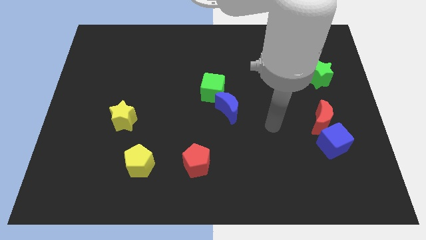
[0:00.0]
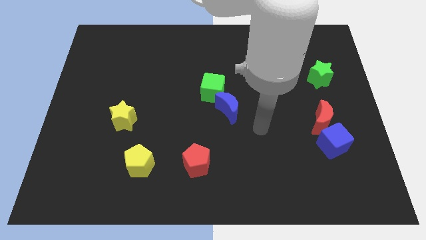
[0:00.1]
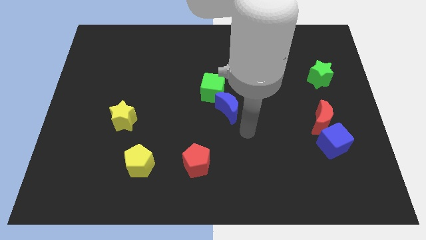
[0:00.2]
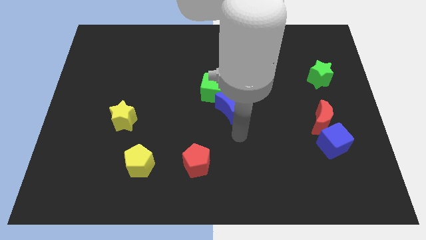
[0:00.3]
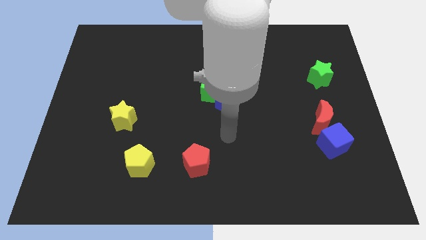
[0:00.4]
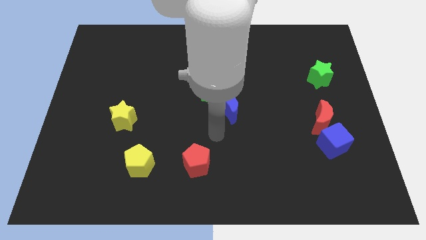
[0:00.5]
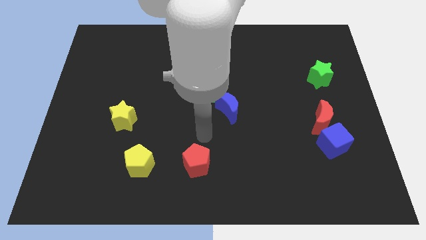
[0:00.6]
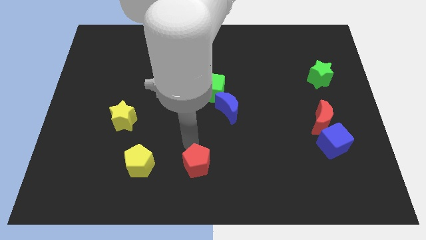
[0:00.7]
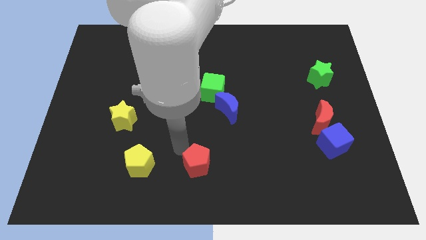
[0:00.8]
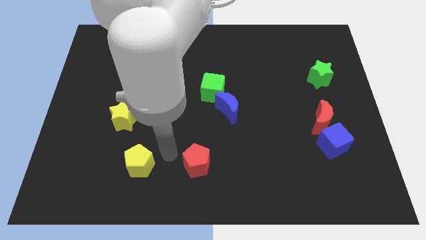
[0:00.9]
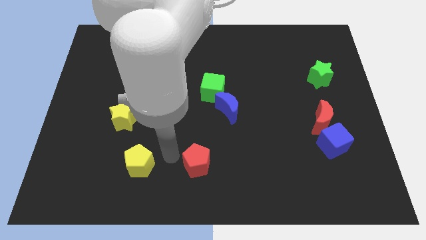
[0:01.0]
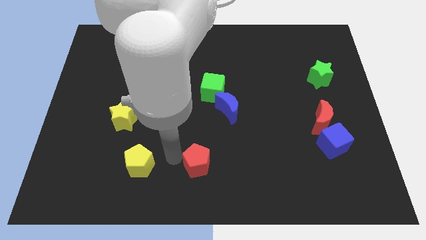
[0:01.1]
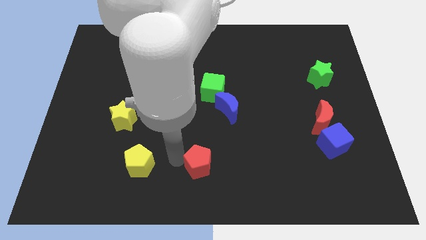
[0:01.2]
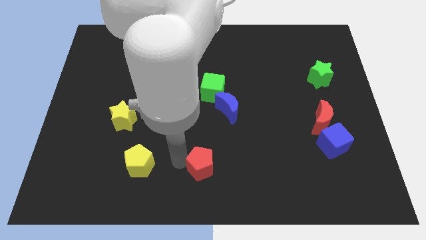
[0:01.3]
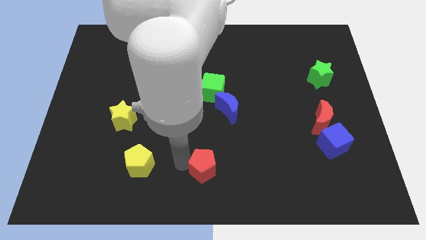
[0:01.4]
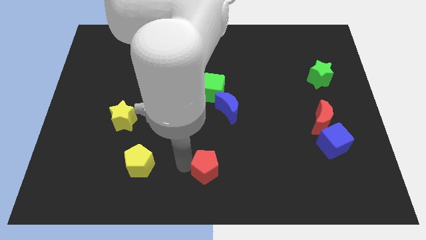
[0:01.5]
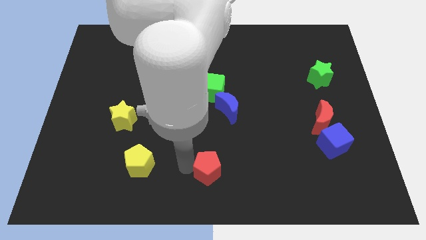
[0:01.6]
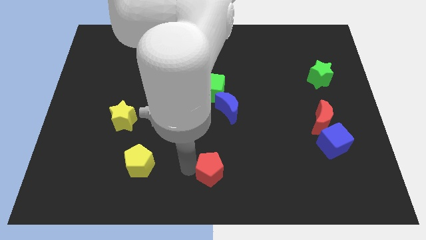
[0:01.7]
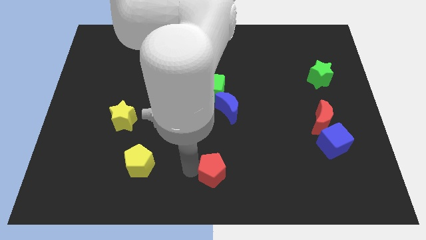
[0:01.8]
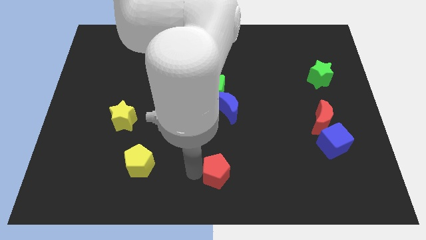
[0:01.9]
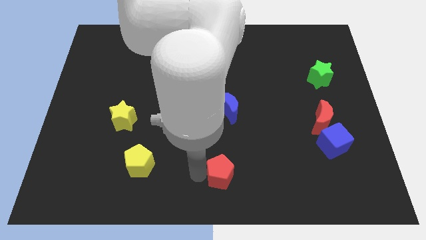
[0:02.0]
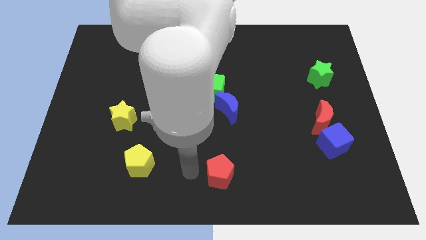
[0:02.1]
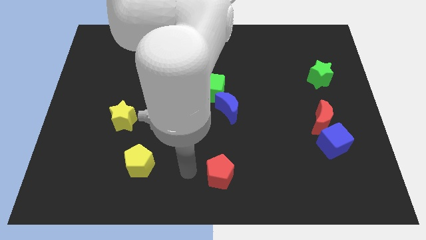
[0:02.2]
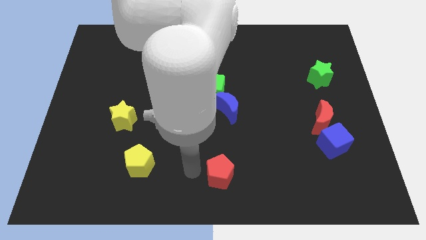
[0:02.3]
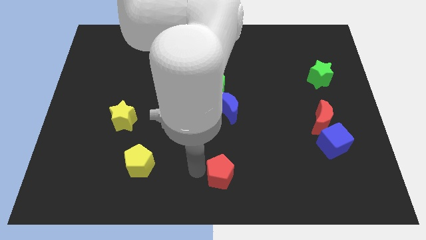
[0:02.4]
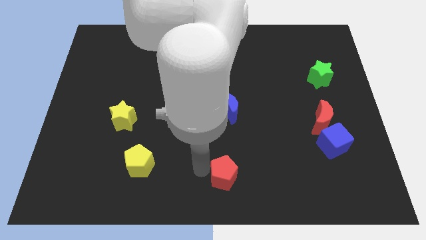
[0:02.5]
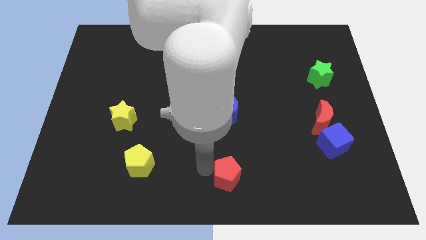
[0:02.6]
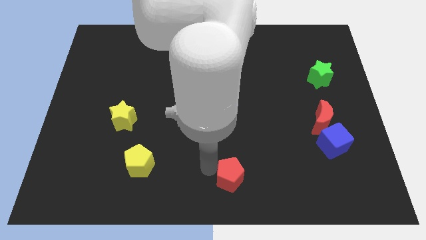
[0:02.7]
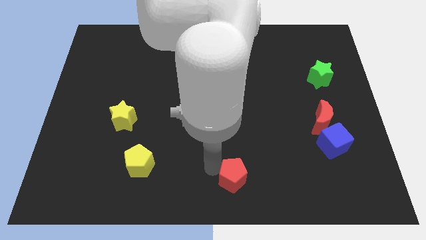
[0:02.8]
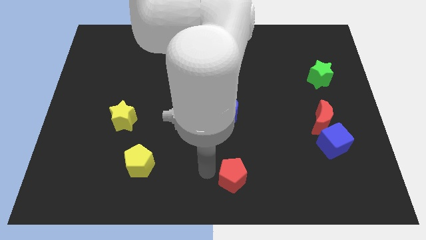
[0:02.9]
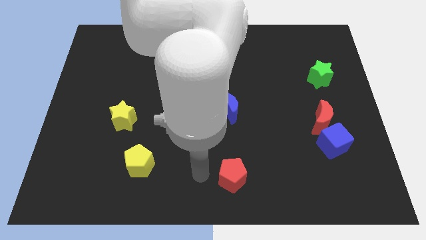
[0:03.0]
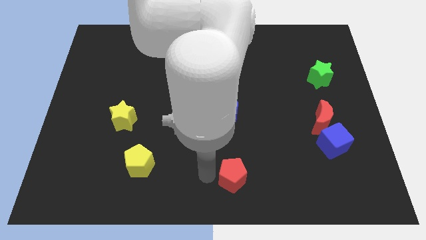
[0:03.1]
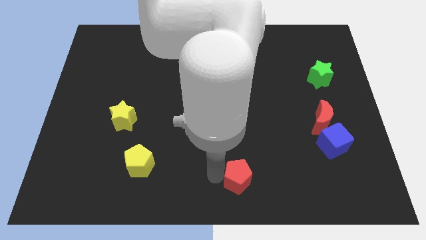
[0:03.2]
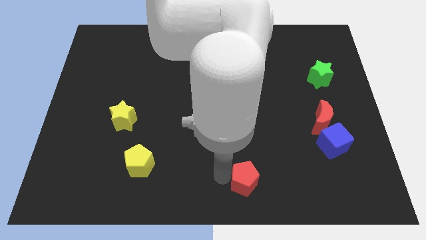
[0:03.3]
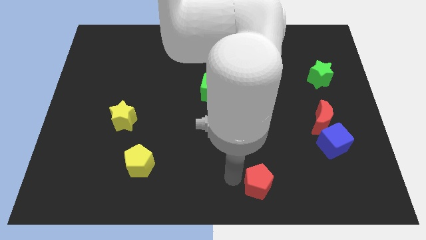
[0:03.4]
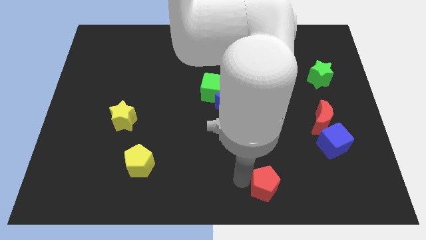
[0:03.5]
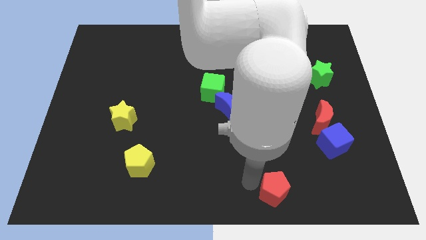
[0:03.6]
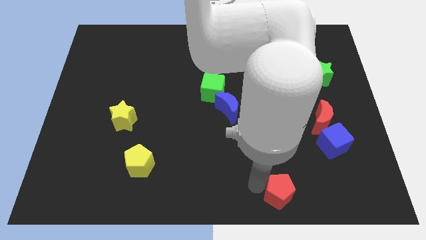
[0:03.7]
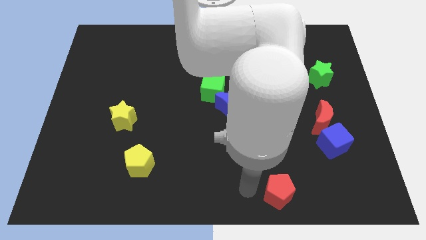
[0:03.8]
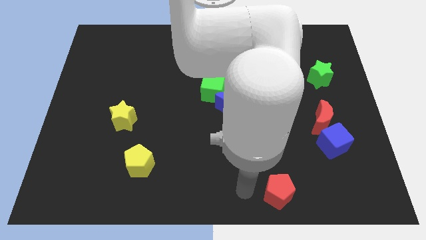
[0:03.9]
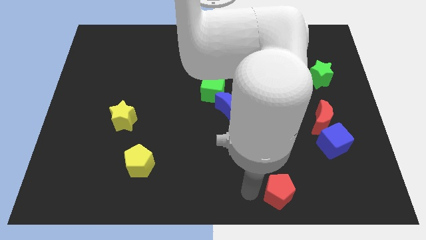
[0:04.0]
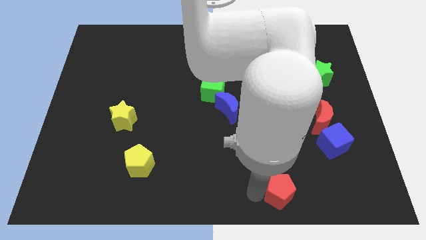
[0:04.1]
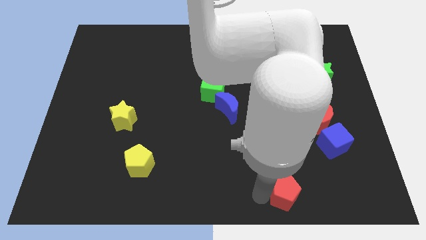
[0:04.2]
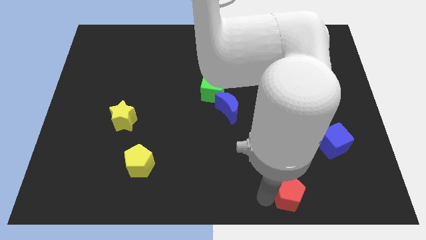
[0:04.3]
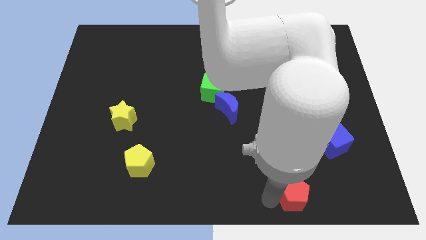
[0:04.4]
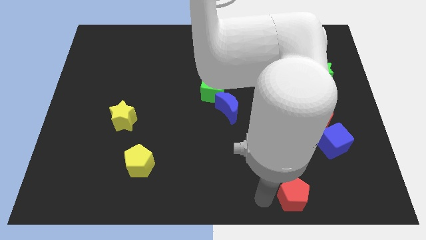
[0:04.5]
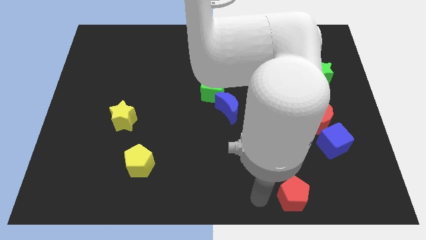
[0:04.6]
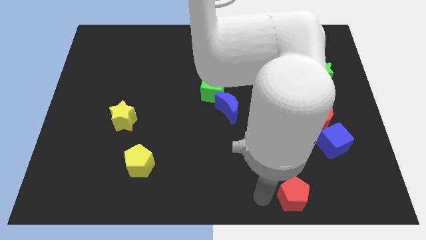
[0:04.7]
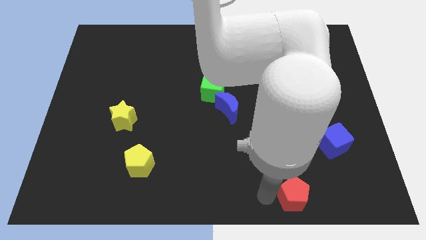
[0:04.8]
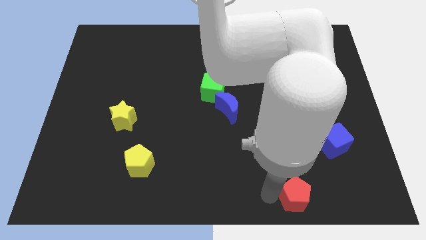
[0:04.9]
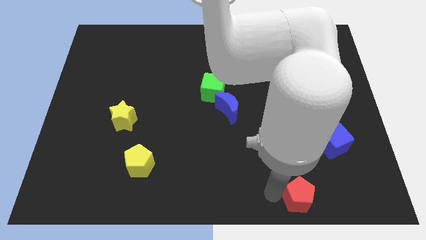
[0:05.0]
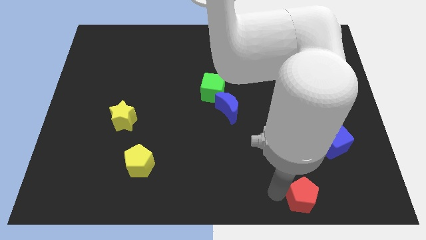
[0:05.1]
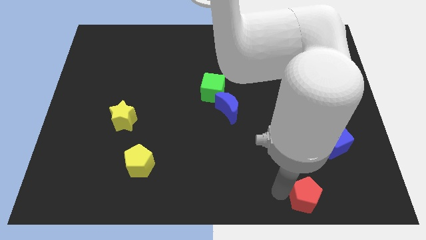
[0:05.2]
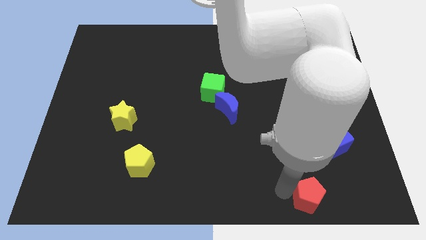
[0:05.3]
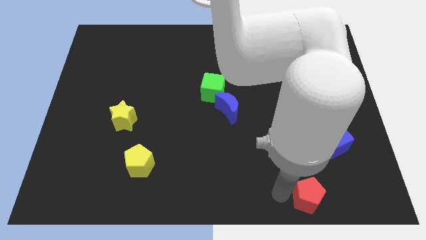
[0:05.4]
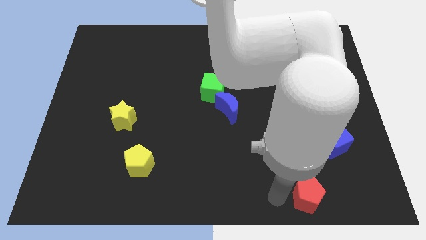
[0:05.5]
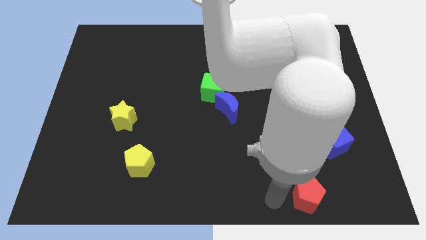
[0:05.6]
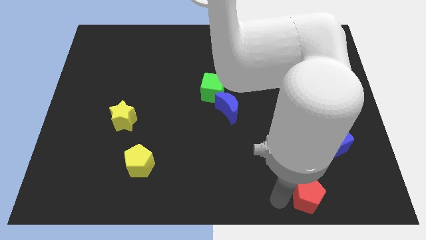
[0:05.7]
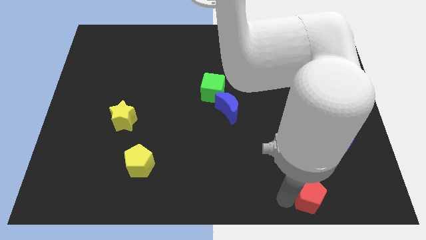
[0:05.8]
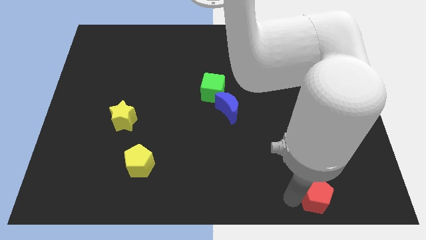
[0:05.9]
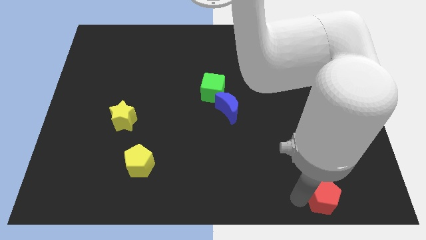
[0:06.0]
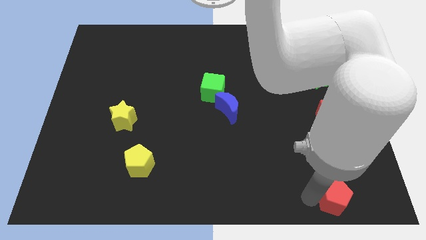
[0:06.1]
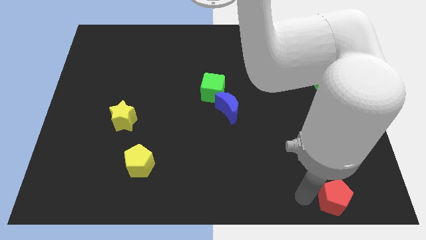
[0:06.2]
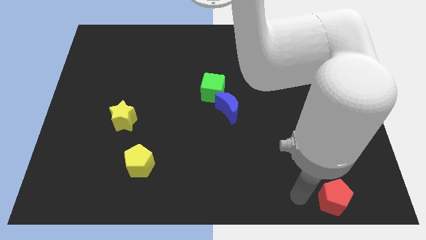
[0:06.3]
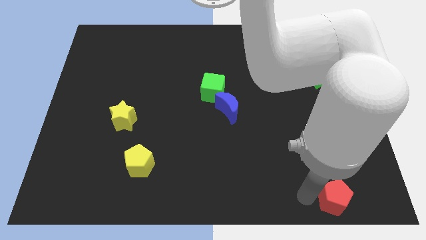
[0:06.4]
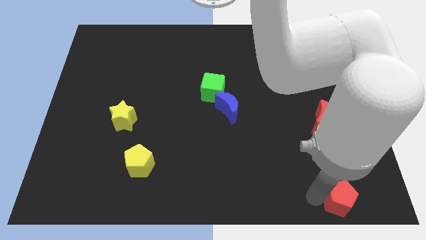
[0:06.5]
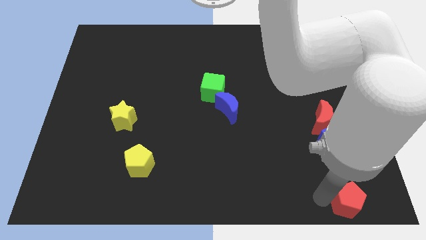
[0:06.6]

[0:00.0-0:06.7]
slide the red pentagon to the bottom right of the board
